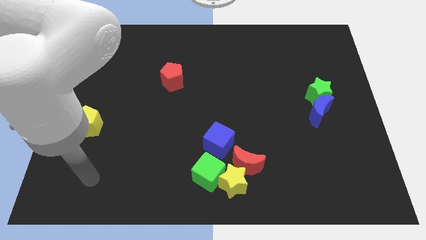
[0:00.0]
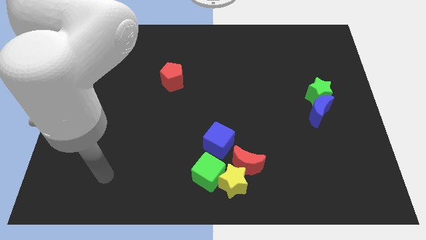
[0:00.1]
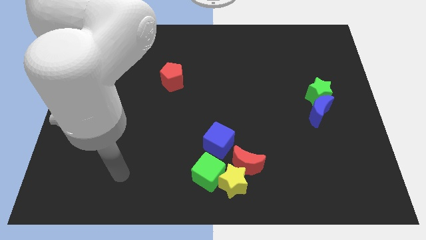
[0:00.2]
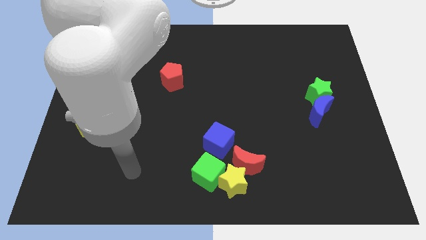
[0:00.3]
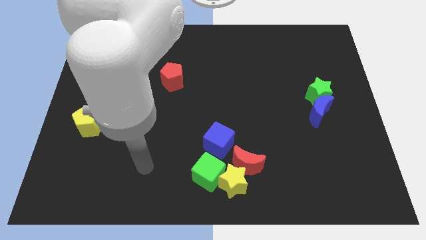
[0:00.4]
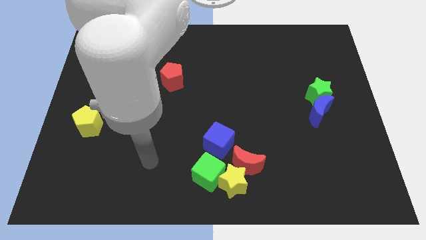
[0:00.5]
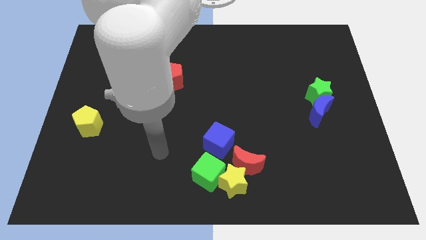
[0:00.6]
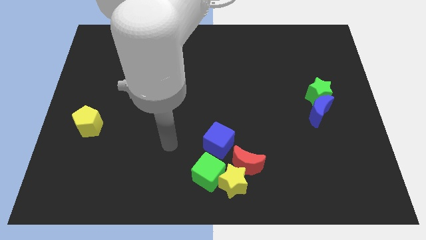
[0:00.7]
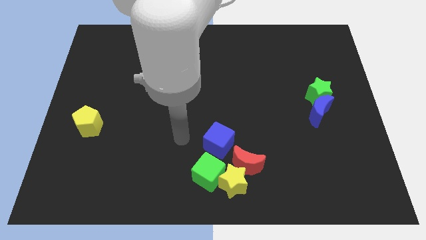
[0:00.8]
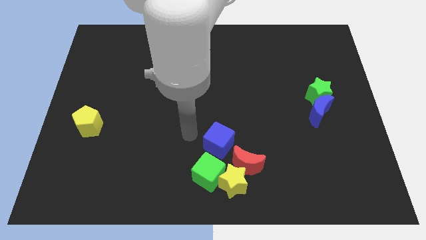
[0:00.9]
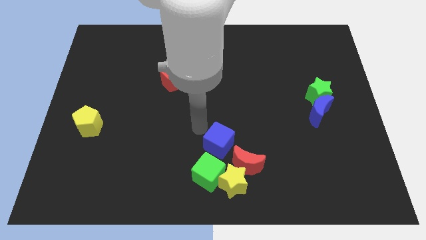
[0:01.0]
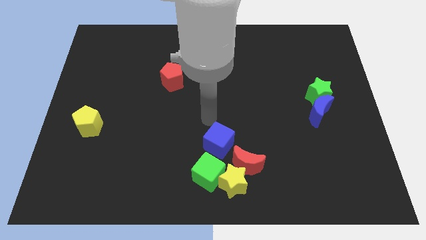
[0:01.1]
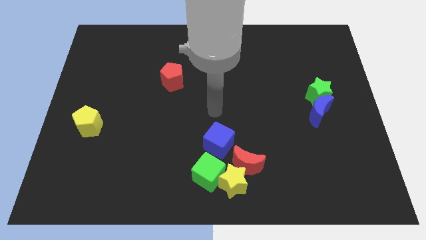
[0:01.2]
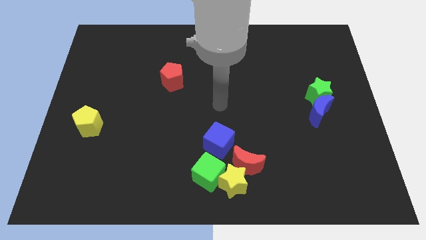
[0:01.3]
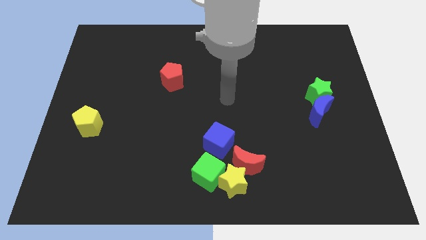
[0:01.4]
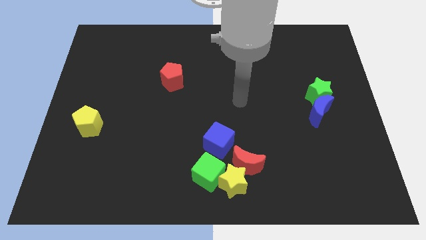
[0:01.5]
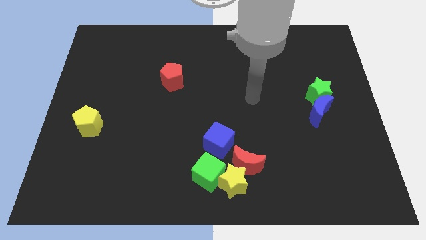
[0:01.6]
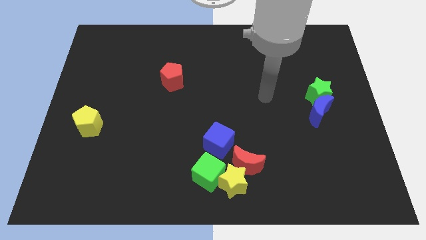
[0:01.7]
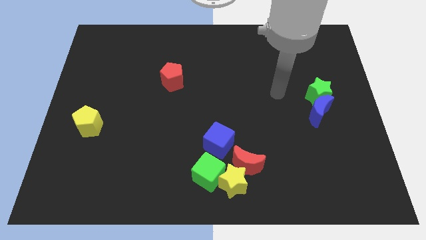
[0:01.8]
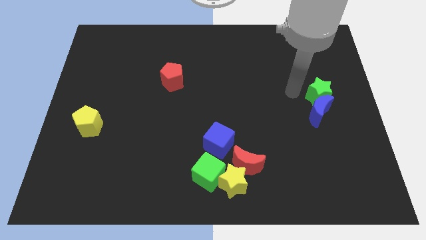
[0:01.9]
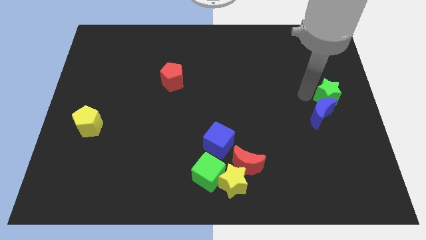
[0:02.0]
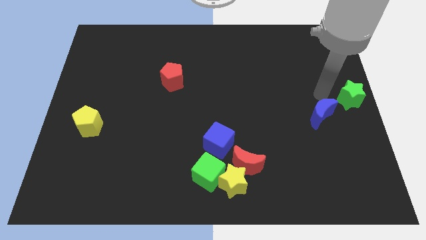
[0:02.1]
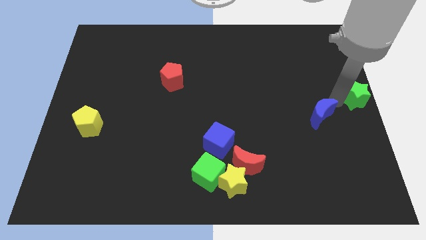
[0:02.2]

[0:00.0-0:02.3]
move the blue moon away from the green star

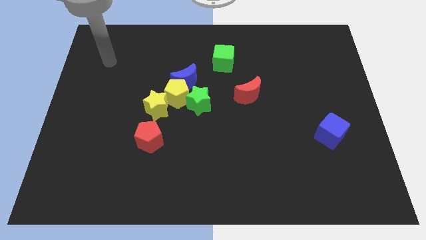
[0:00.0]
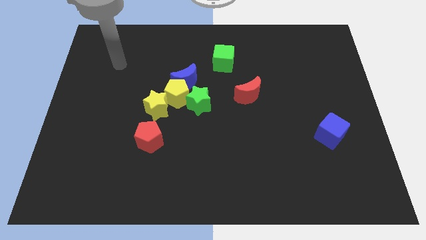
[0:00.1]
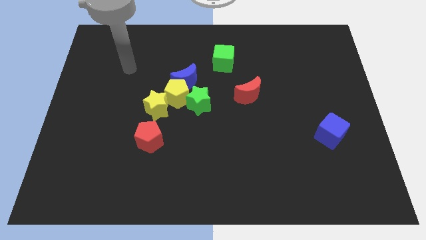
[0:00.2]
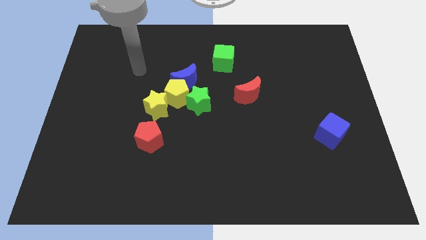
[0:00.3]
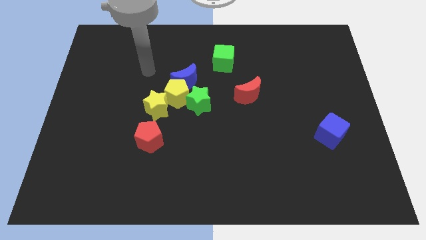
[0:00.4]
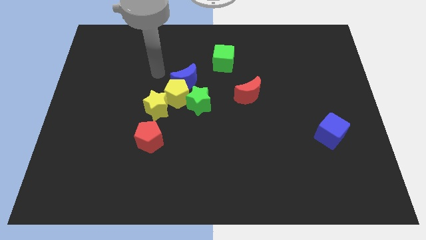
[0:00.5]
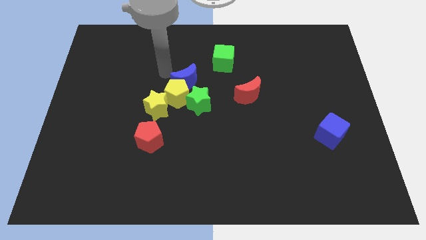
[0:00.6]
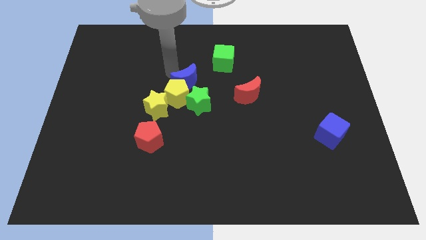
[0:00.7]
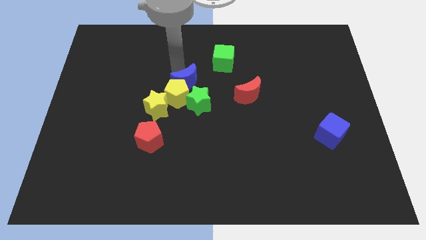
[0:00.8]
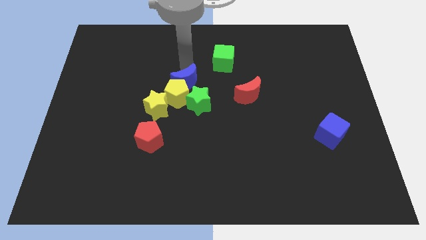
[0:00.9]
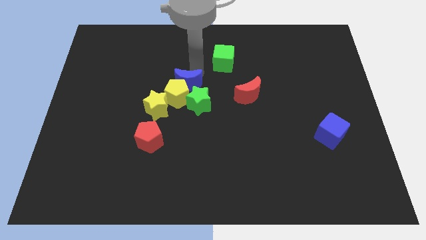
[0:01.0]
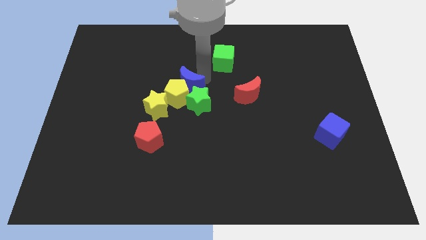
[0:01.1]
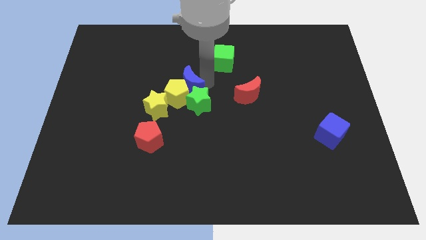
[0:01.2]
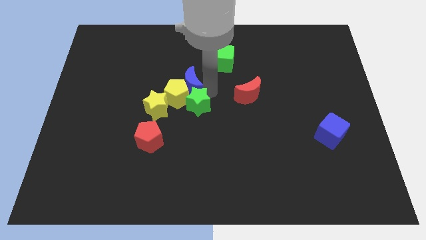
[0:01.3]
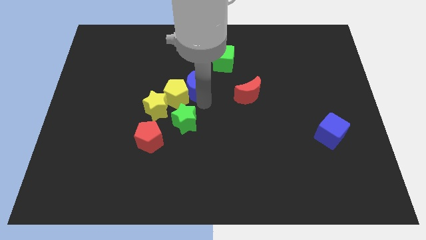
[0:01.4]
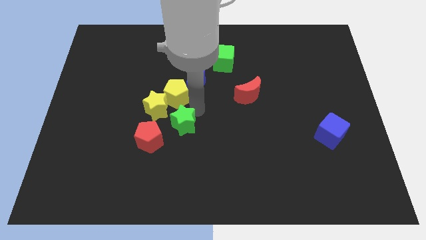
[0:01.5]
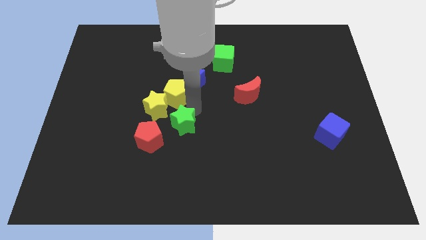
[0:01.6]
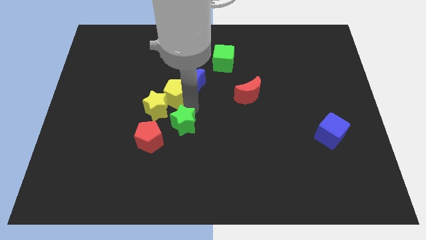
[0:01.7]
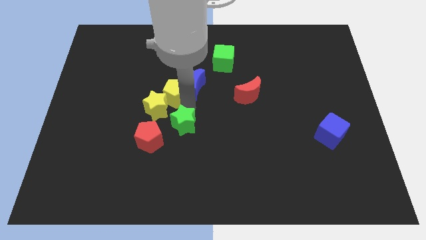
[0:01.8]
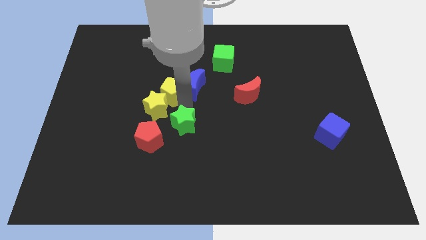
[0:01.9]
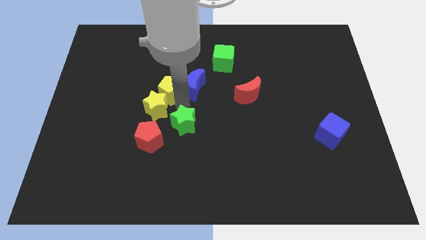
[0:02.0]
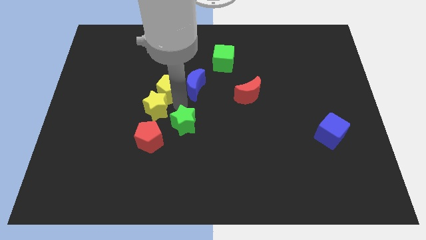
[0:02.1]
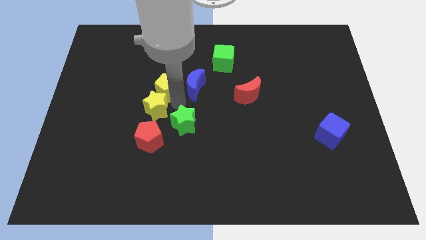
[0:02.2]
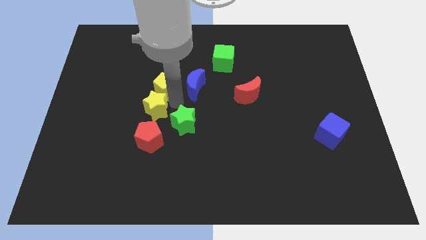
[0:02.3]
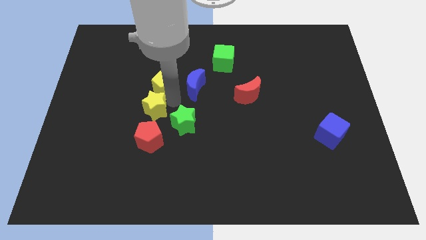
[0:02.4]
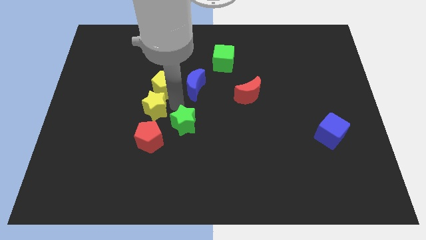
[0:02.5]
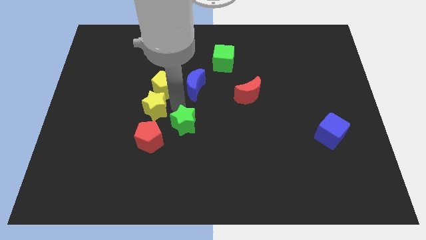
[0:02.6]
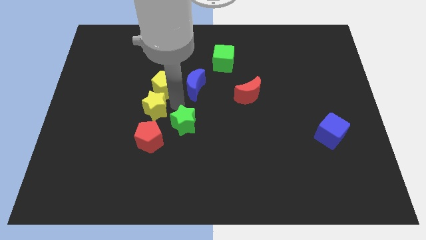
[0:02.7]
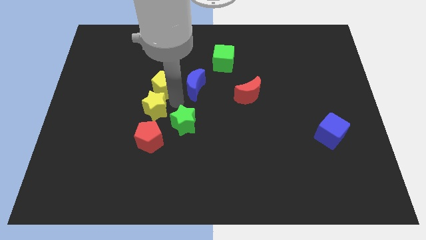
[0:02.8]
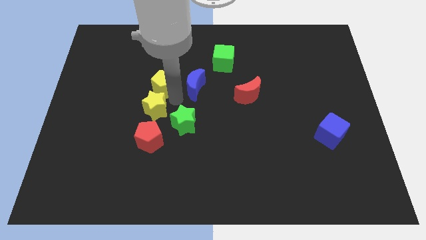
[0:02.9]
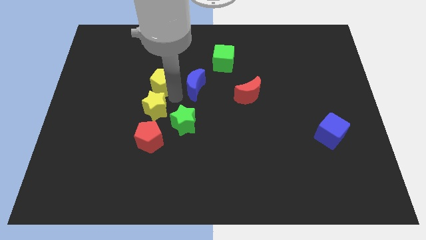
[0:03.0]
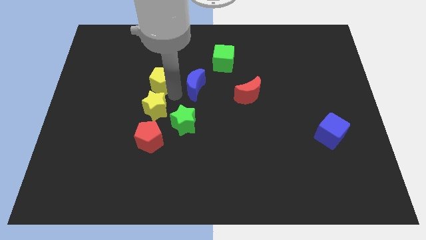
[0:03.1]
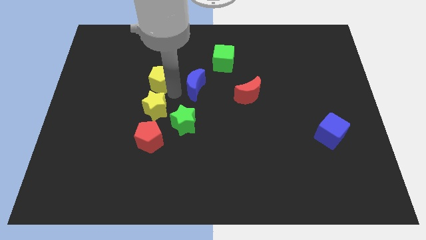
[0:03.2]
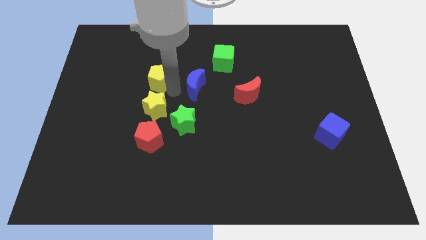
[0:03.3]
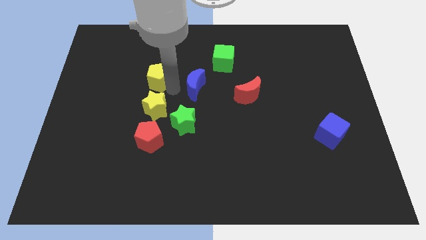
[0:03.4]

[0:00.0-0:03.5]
move the yellow pentagon away from the clump

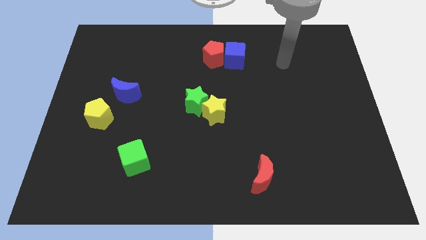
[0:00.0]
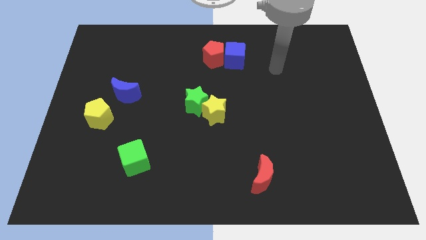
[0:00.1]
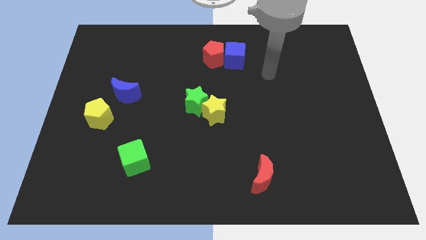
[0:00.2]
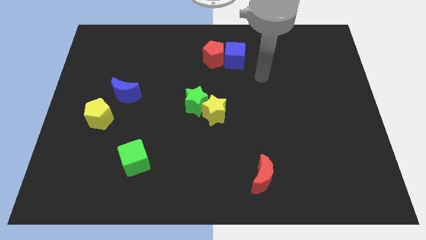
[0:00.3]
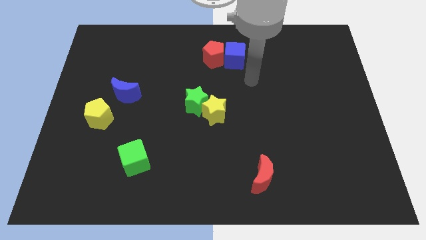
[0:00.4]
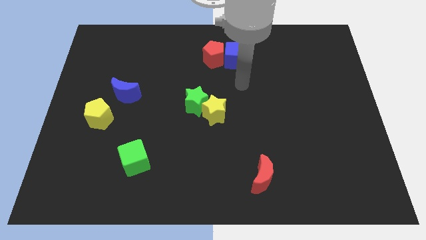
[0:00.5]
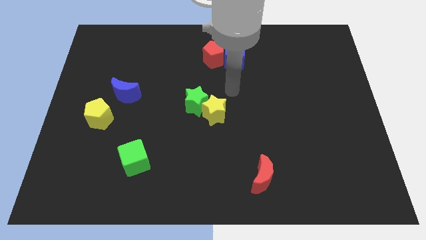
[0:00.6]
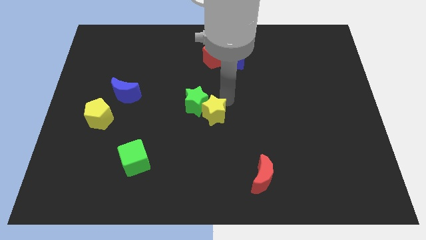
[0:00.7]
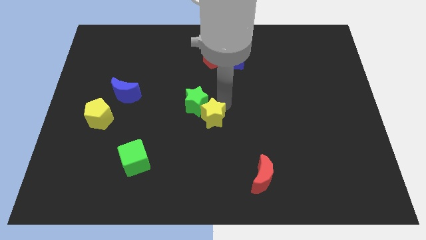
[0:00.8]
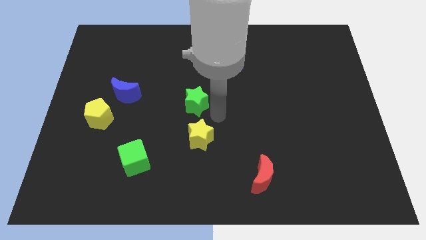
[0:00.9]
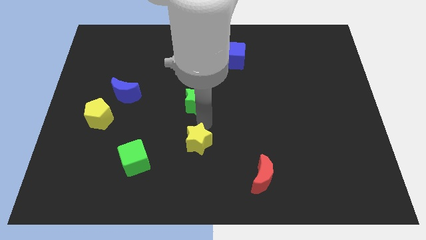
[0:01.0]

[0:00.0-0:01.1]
separate the green star from the yellow star

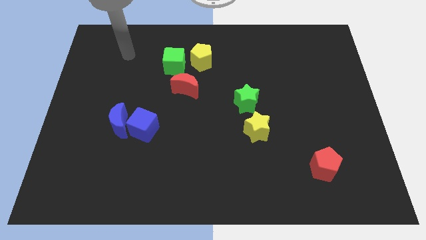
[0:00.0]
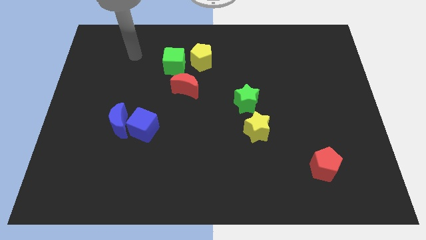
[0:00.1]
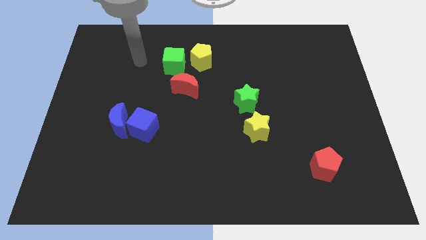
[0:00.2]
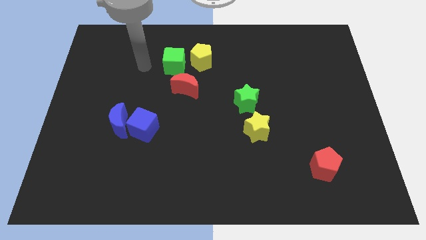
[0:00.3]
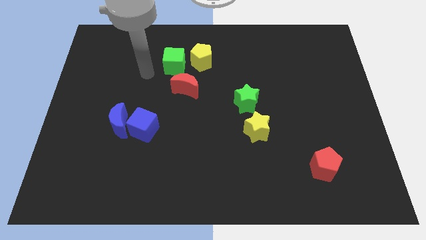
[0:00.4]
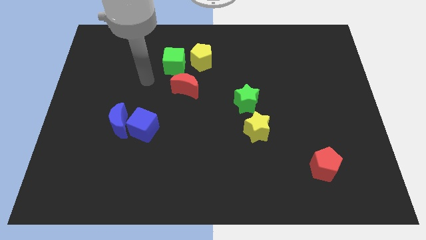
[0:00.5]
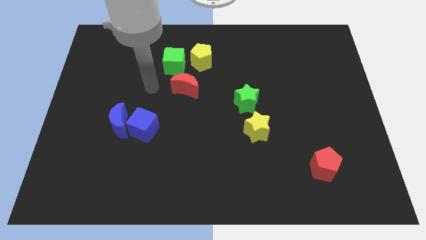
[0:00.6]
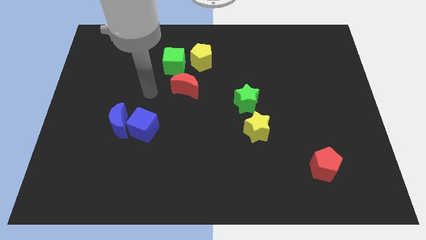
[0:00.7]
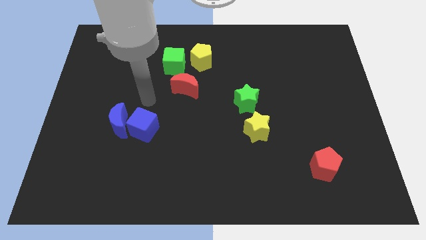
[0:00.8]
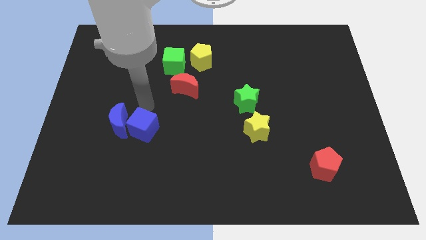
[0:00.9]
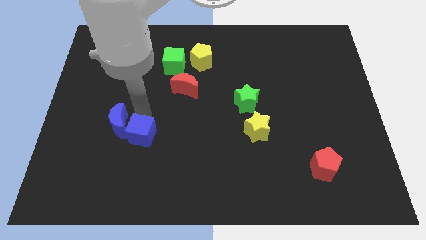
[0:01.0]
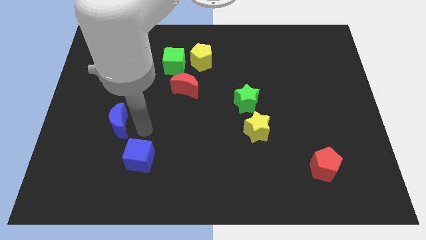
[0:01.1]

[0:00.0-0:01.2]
separate the blue moon from the blue cube

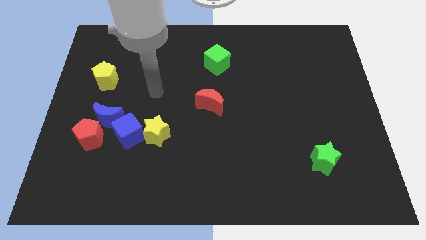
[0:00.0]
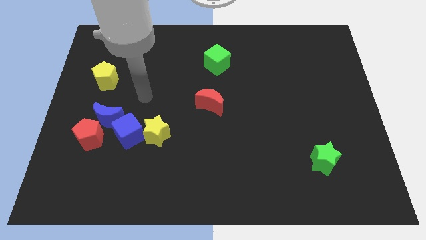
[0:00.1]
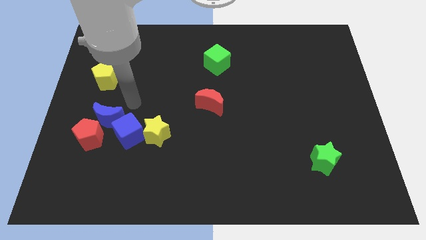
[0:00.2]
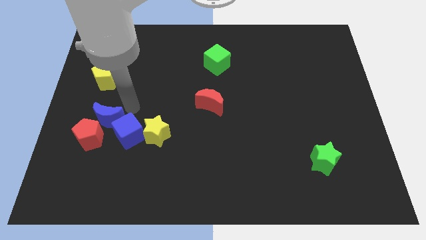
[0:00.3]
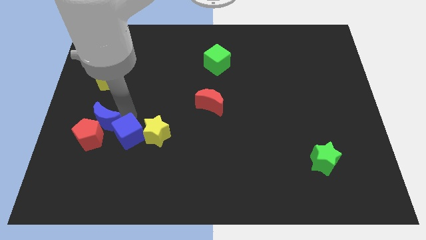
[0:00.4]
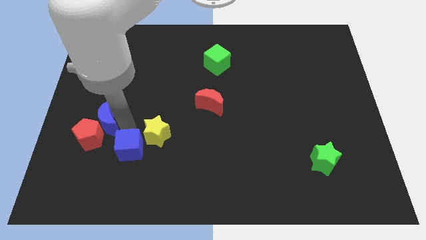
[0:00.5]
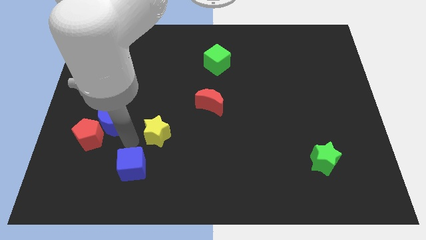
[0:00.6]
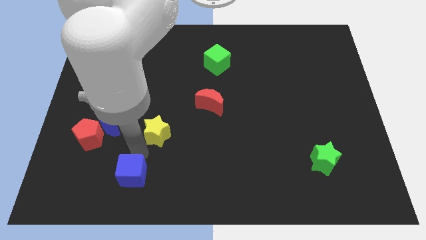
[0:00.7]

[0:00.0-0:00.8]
pull the yellow star apart from the blue cube

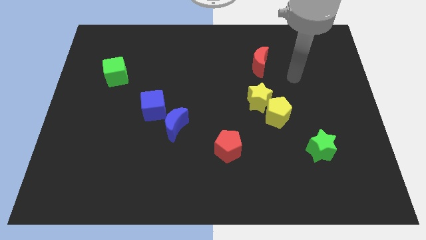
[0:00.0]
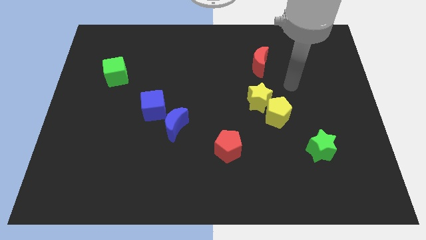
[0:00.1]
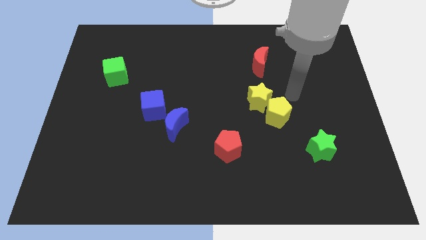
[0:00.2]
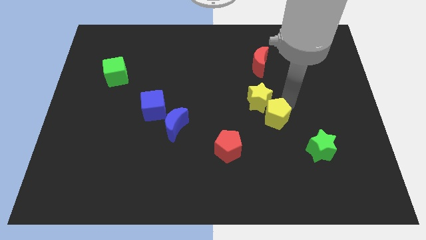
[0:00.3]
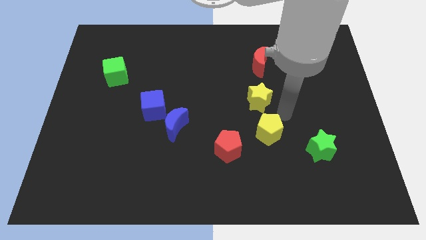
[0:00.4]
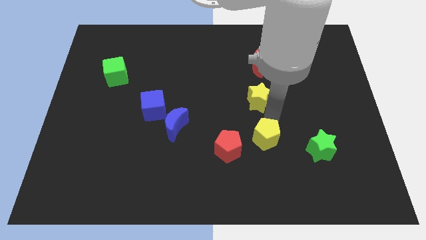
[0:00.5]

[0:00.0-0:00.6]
pull the yellow star apart from the yellow pentagon
